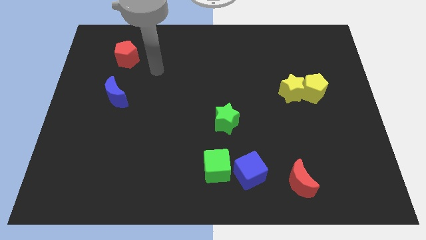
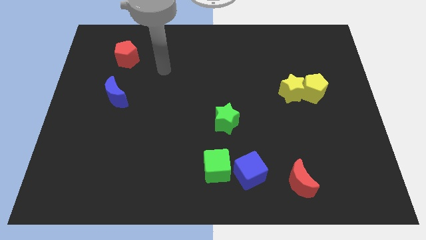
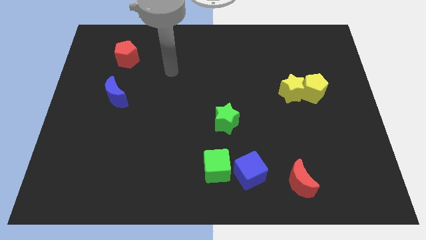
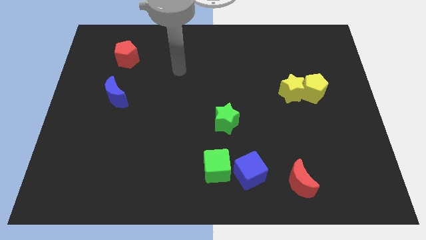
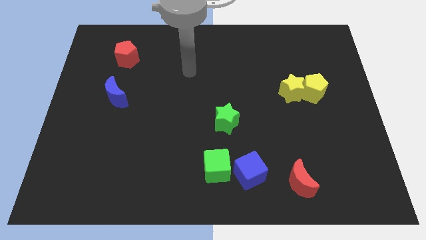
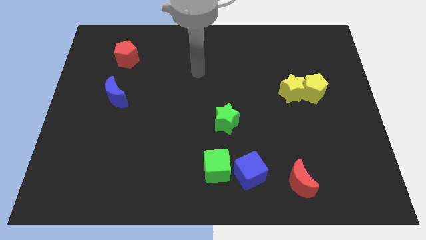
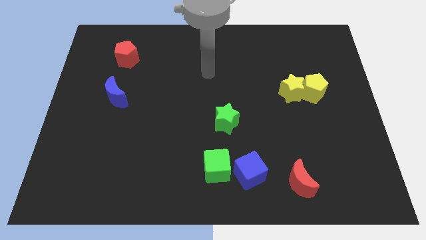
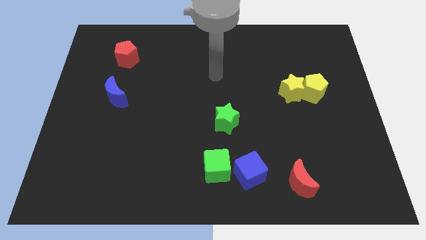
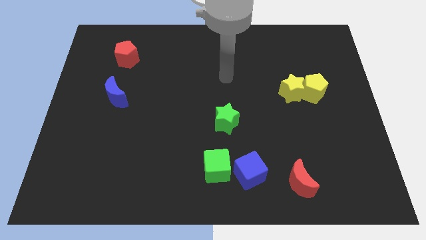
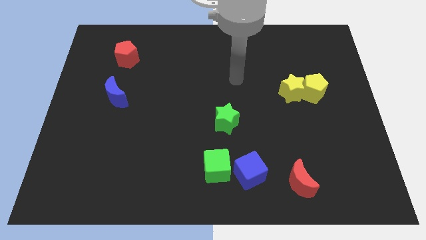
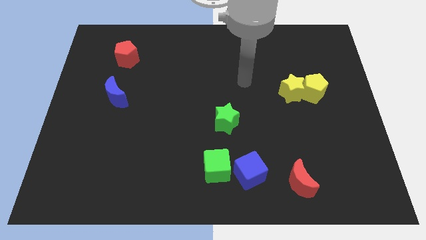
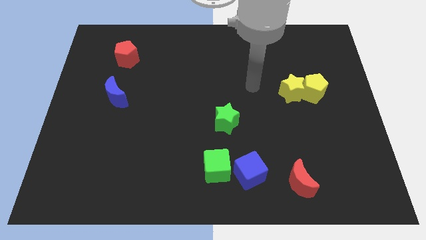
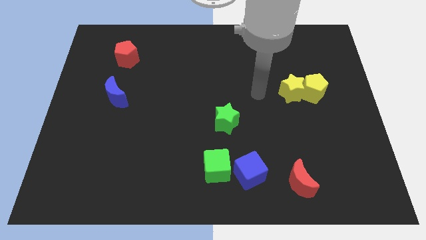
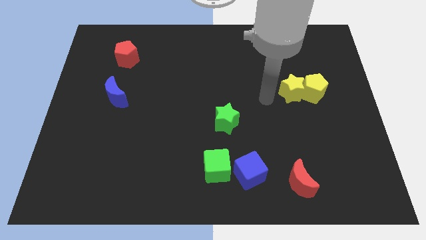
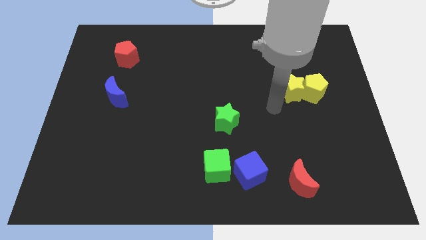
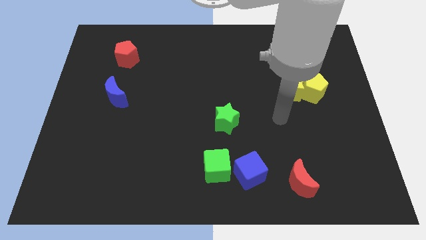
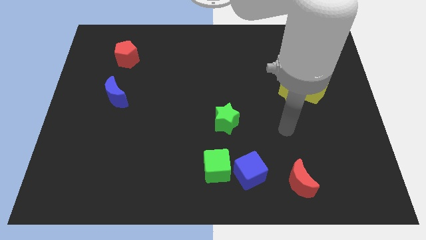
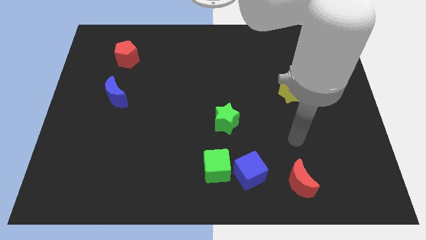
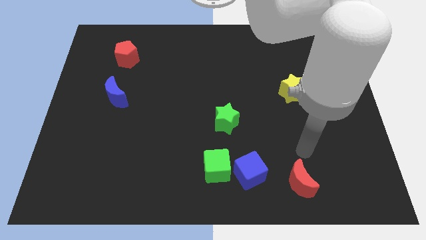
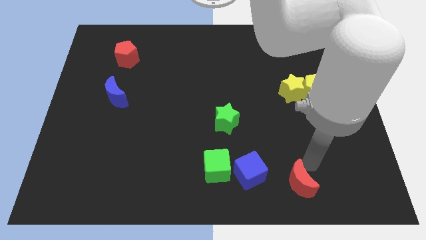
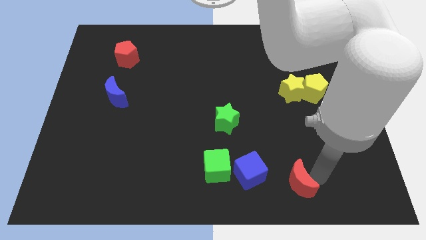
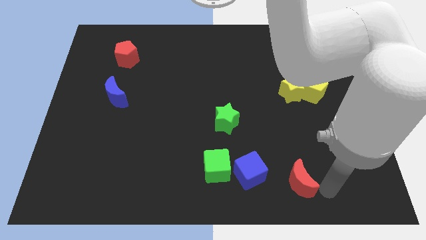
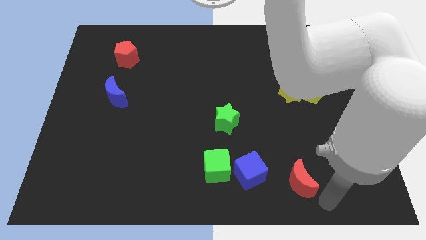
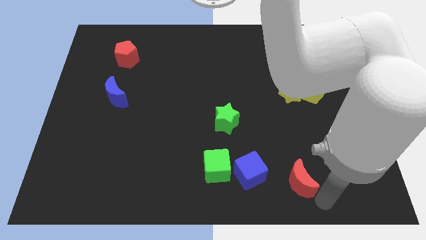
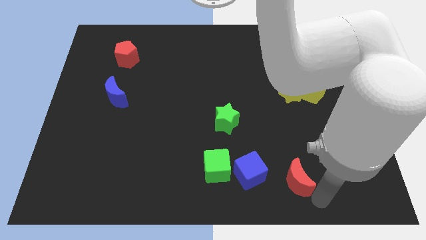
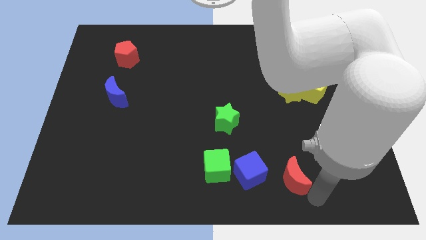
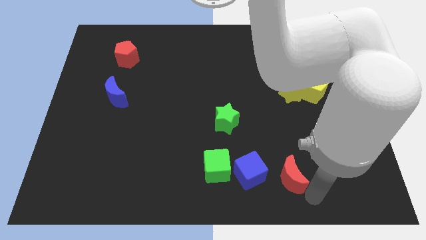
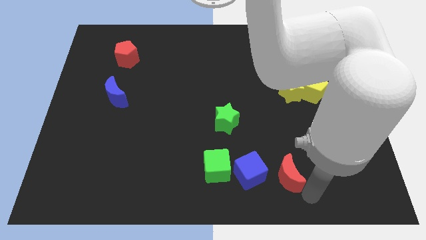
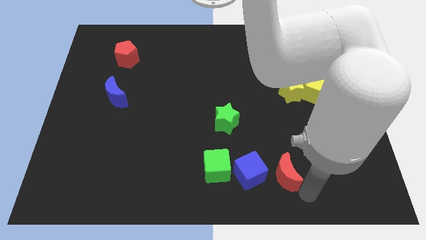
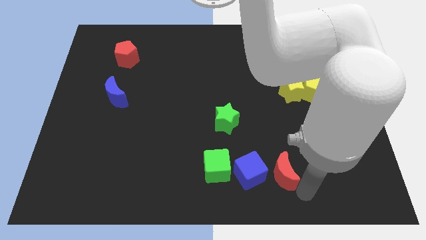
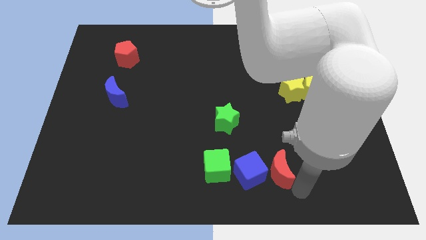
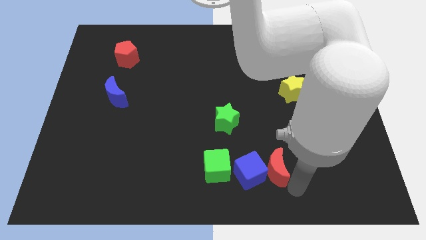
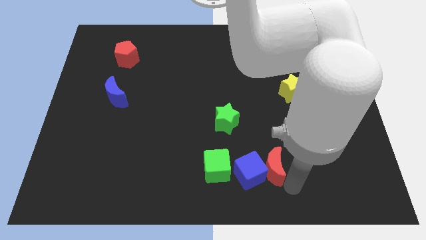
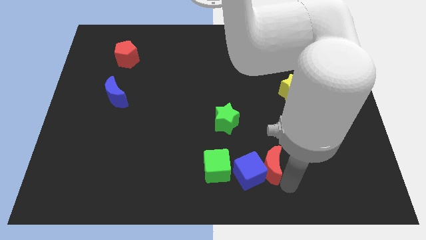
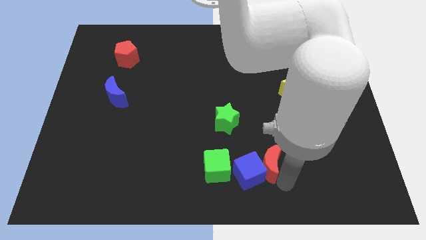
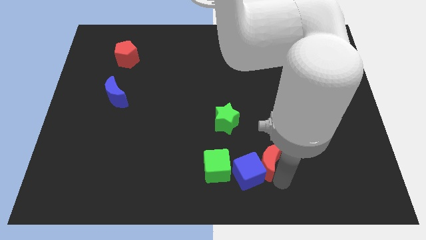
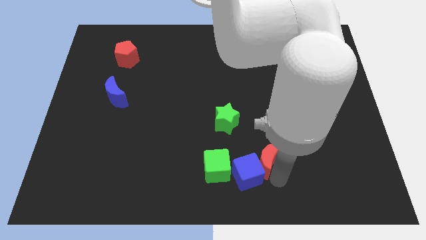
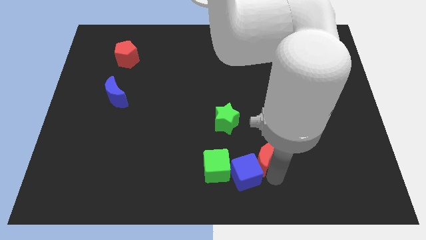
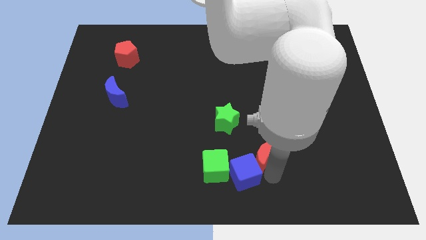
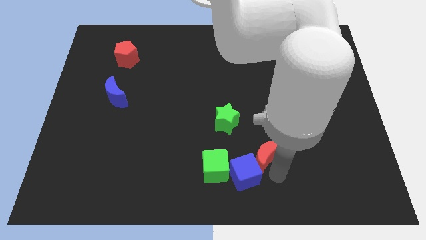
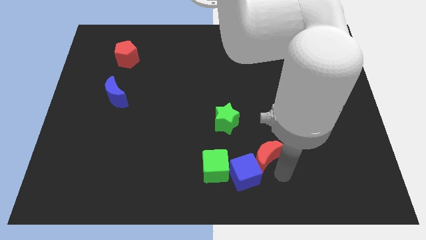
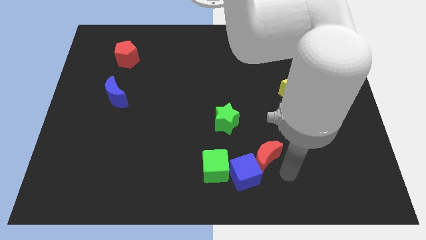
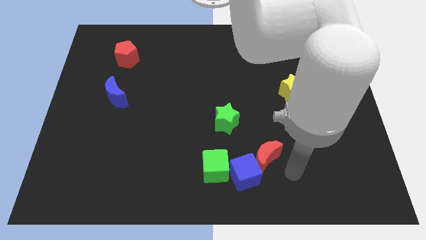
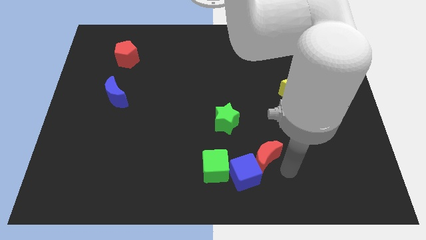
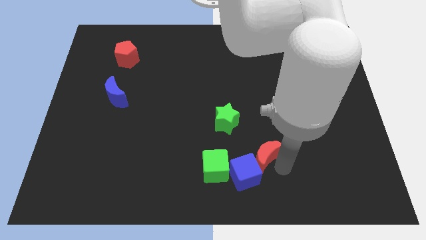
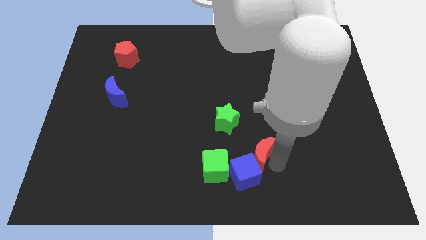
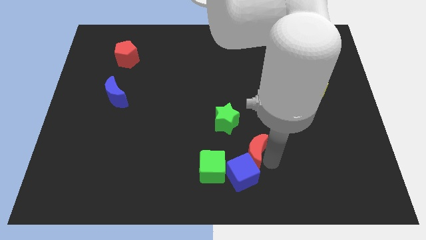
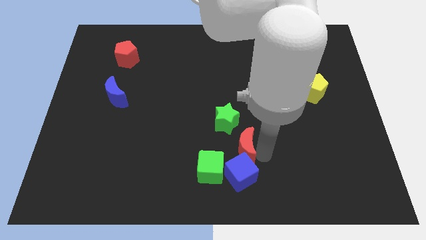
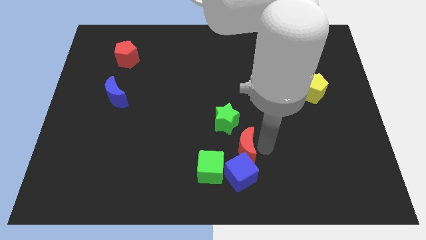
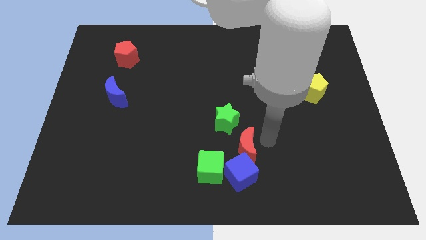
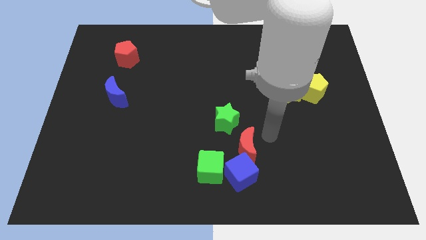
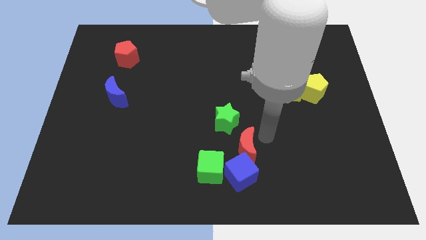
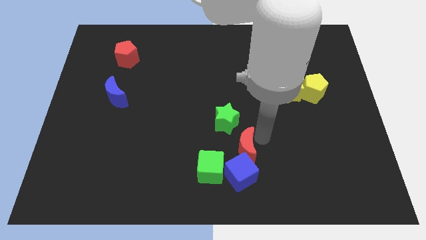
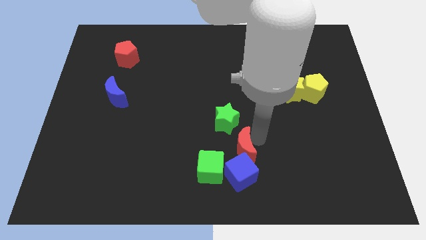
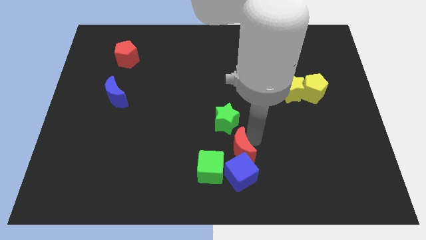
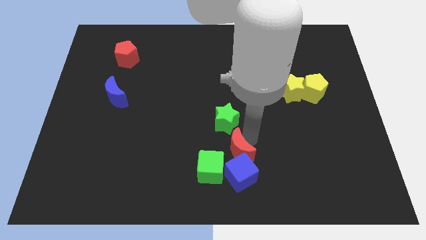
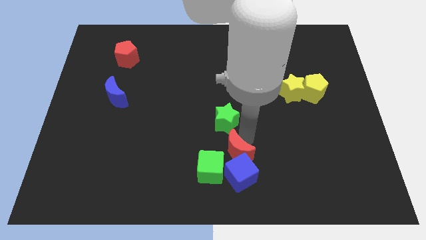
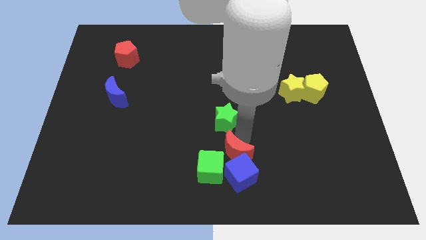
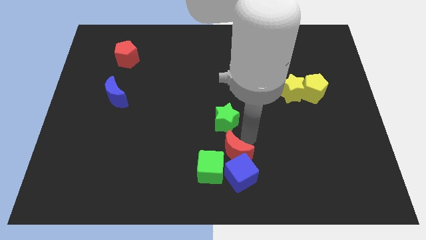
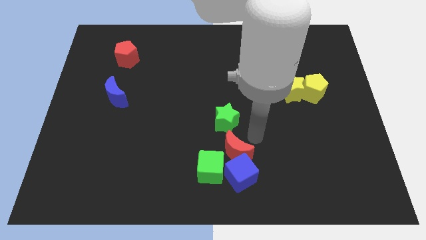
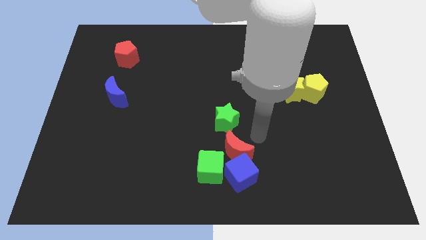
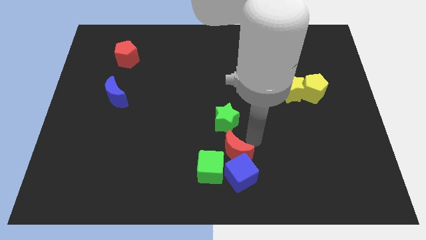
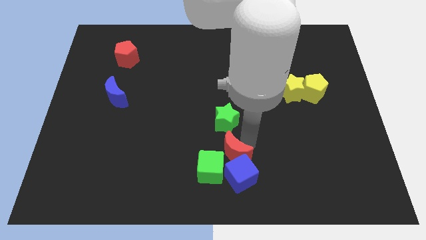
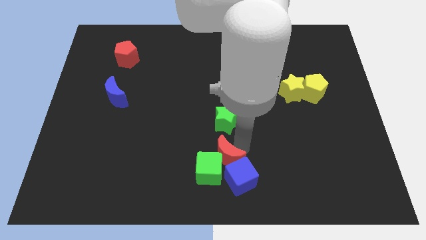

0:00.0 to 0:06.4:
move the red moon close to the green cube
